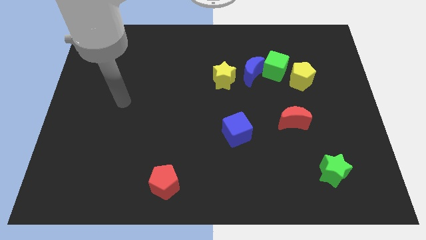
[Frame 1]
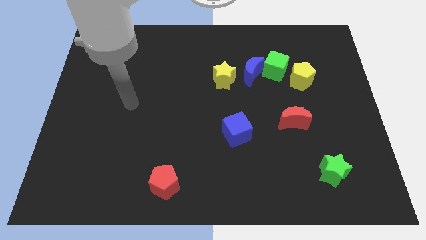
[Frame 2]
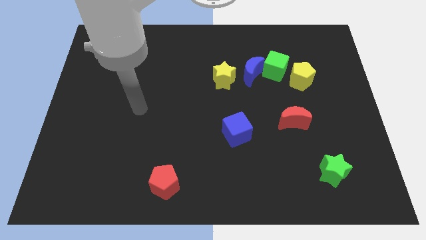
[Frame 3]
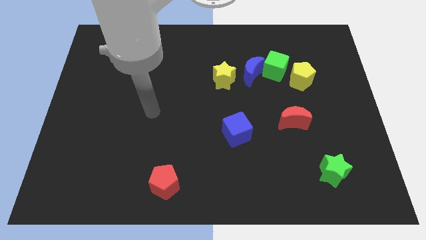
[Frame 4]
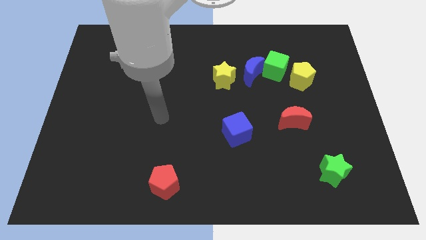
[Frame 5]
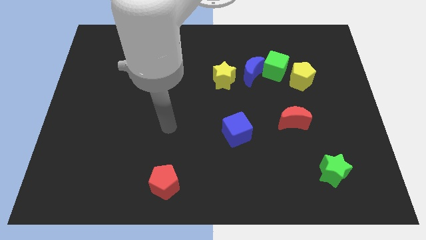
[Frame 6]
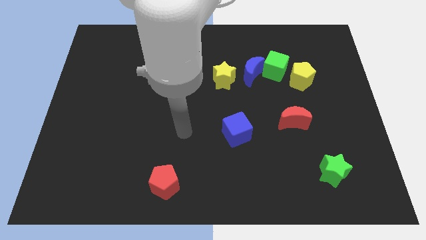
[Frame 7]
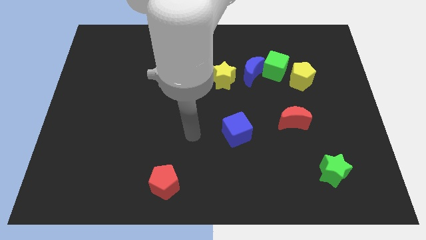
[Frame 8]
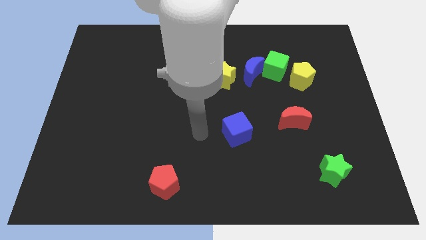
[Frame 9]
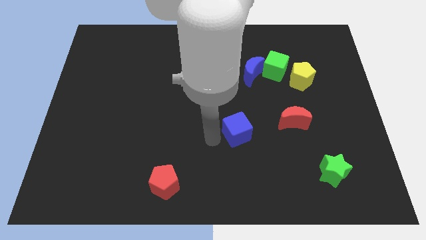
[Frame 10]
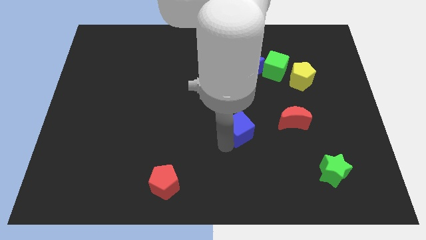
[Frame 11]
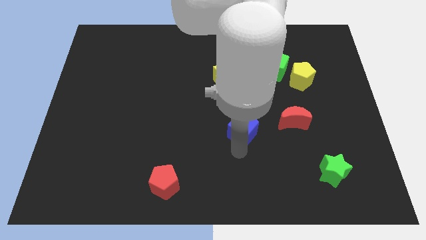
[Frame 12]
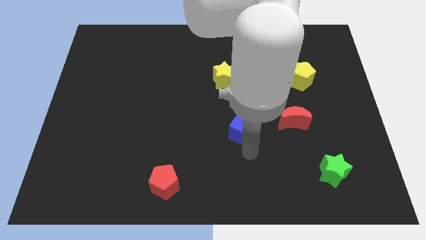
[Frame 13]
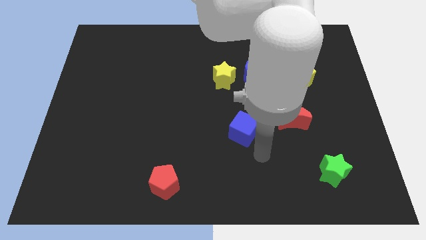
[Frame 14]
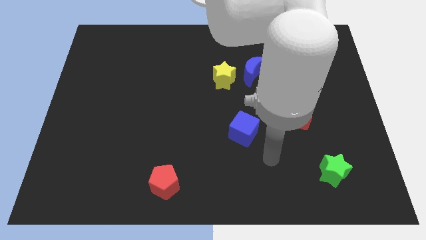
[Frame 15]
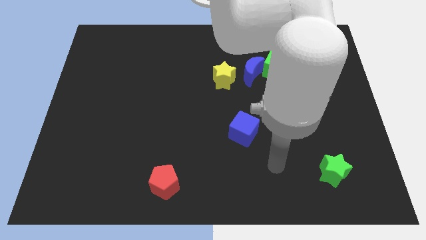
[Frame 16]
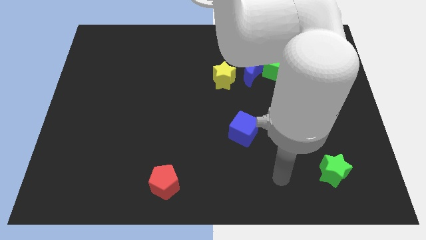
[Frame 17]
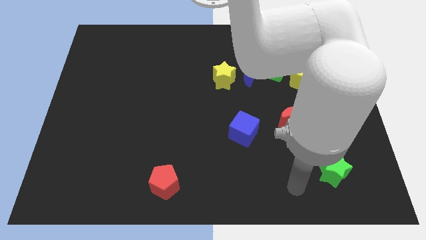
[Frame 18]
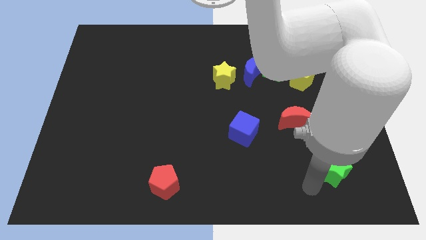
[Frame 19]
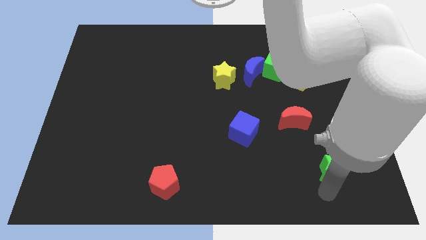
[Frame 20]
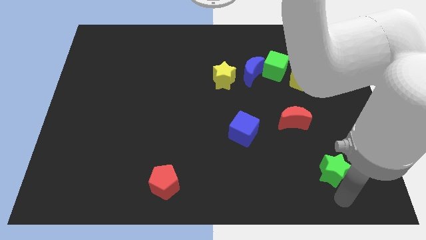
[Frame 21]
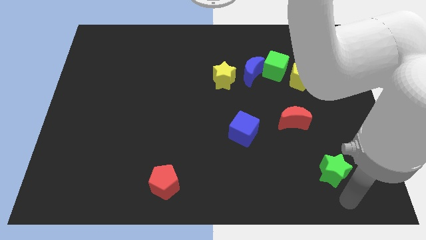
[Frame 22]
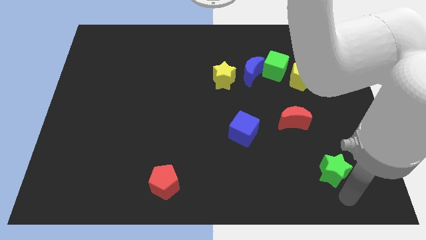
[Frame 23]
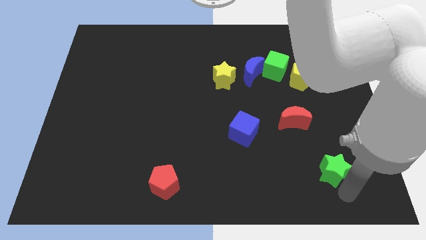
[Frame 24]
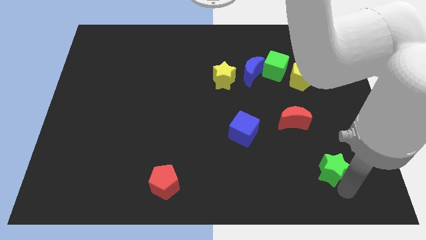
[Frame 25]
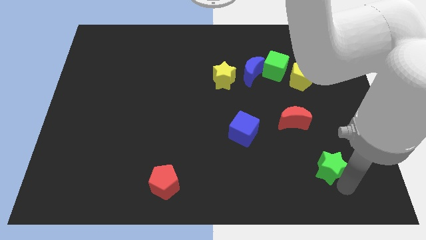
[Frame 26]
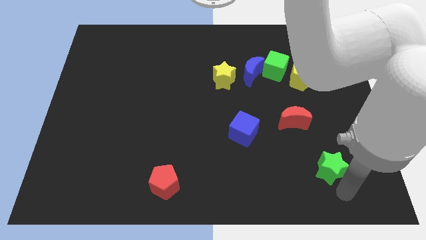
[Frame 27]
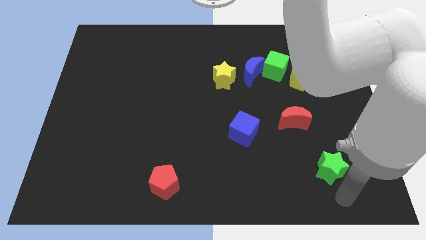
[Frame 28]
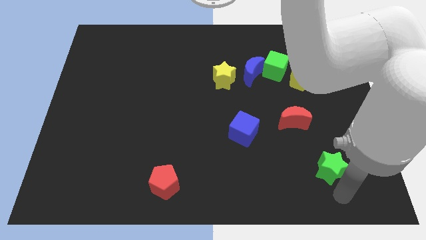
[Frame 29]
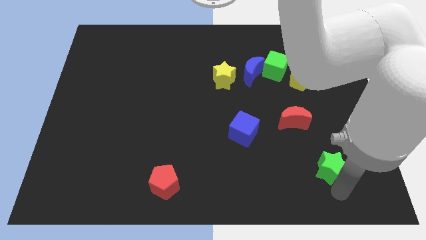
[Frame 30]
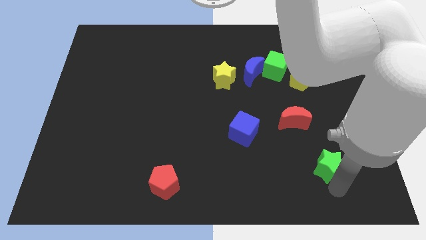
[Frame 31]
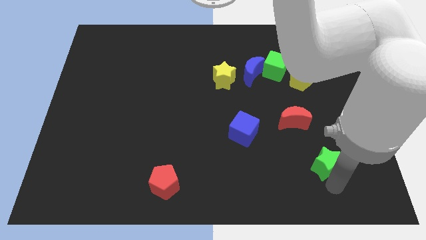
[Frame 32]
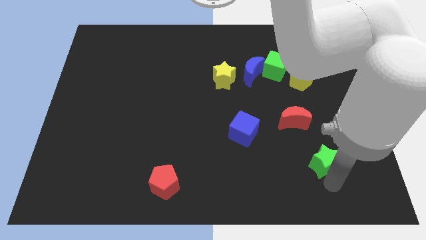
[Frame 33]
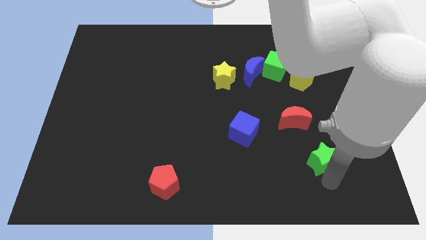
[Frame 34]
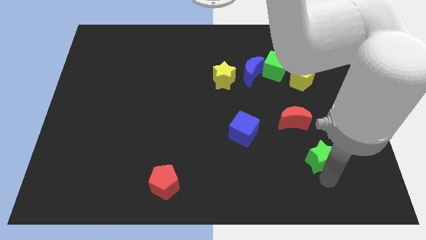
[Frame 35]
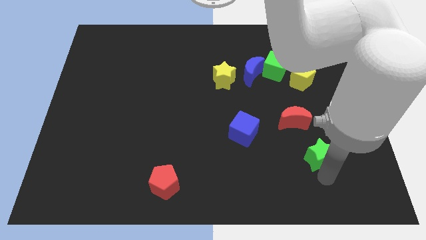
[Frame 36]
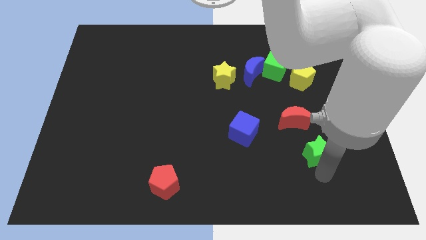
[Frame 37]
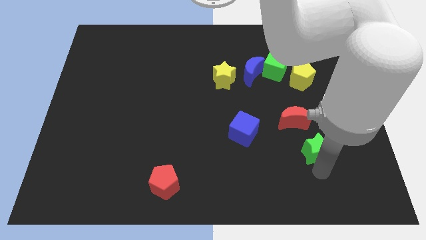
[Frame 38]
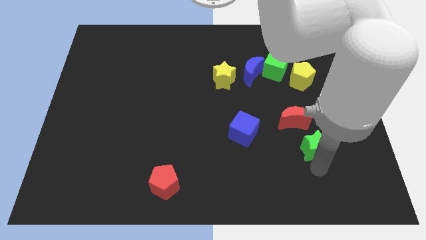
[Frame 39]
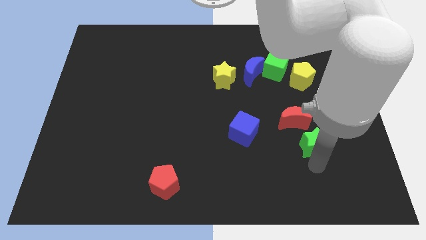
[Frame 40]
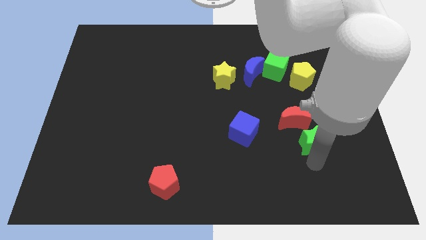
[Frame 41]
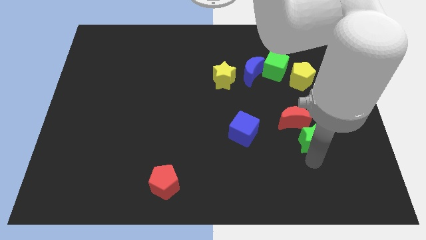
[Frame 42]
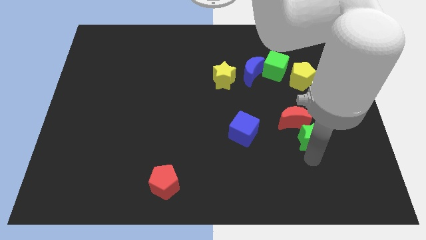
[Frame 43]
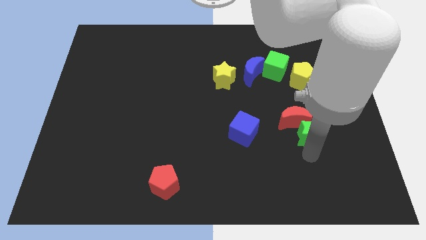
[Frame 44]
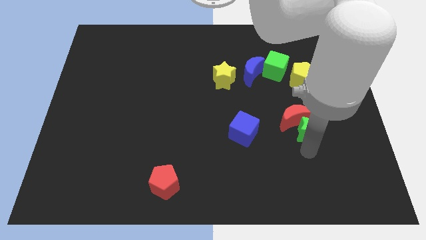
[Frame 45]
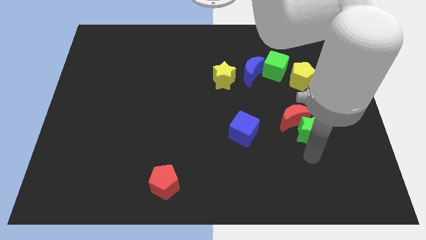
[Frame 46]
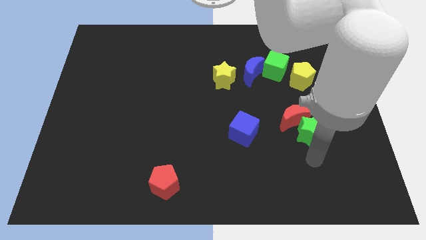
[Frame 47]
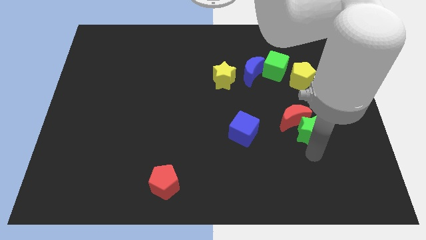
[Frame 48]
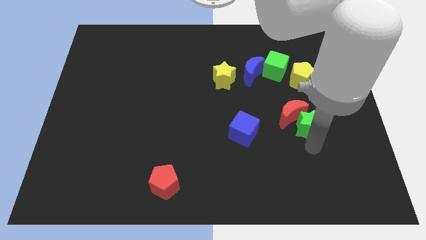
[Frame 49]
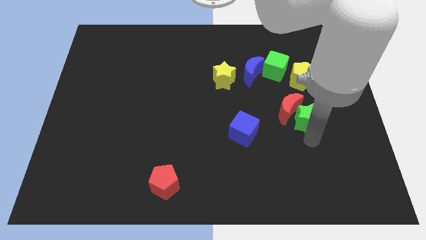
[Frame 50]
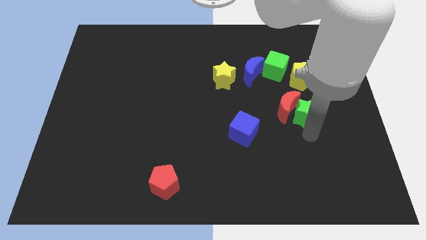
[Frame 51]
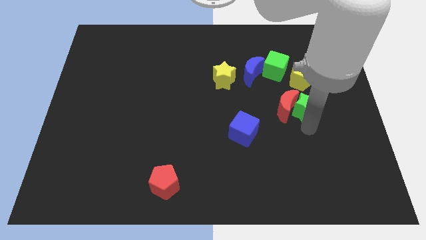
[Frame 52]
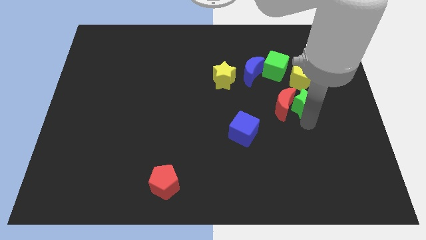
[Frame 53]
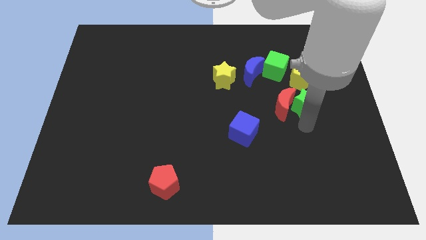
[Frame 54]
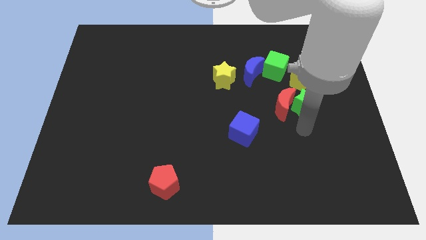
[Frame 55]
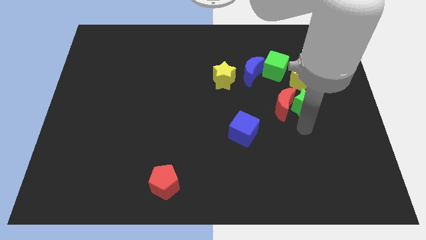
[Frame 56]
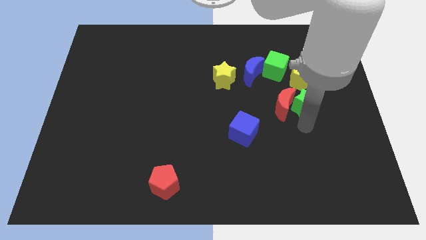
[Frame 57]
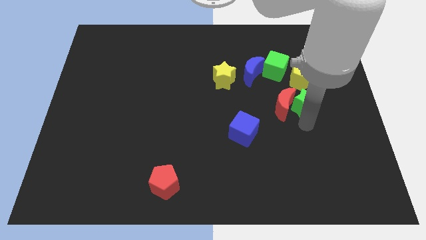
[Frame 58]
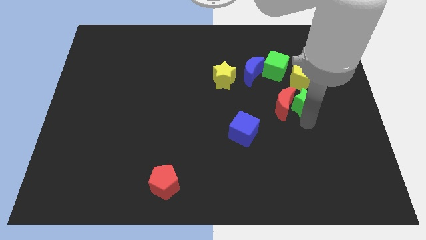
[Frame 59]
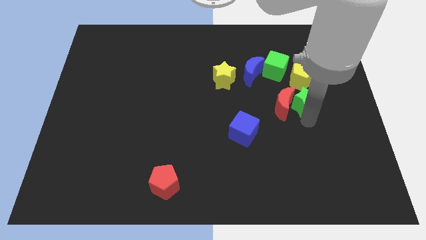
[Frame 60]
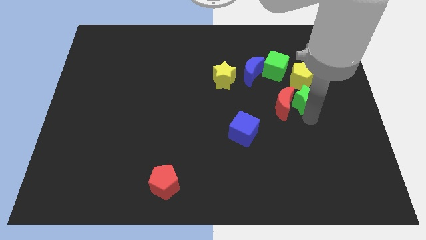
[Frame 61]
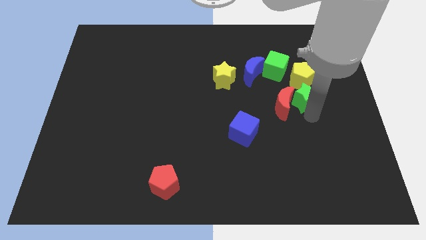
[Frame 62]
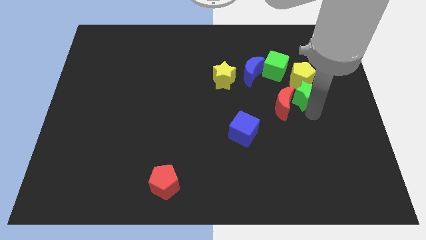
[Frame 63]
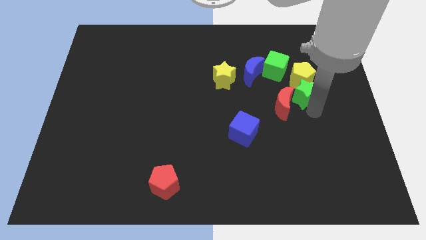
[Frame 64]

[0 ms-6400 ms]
push the green star to the yellow pentagon

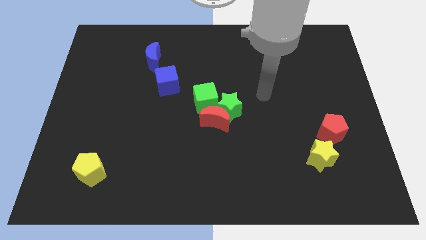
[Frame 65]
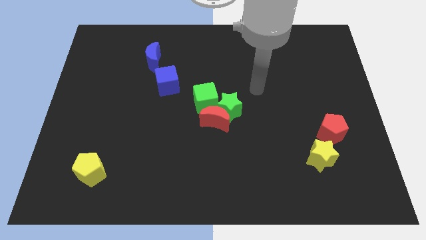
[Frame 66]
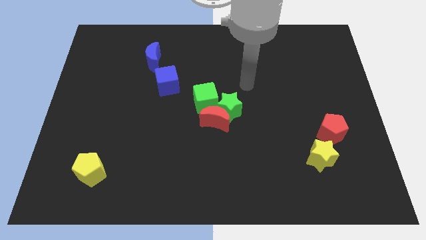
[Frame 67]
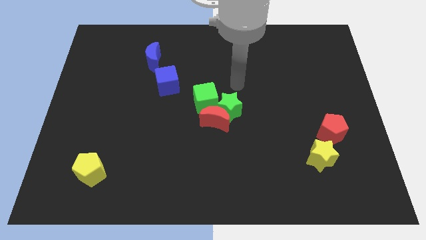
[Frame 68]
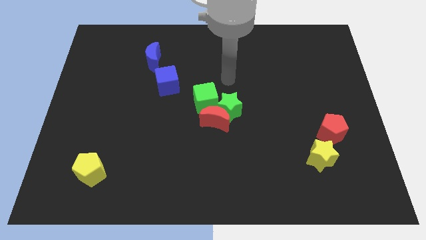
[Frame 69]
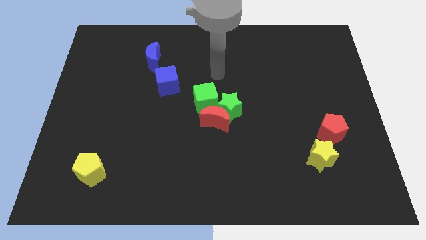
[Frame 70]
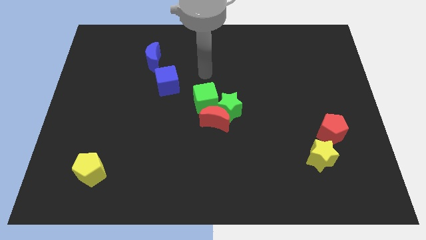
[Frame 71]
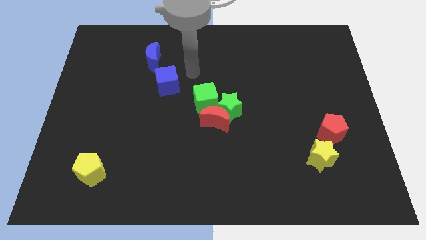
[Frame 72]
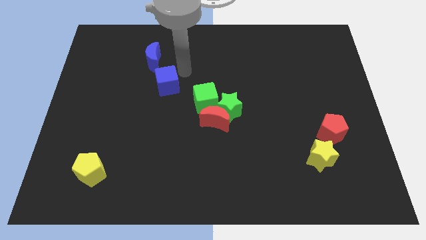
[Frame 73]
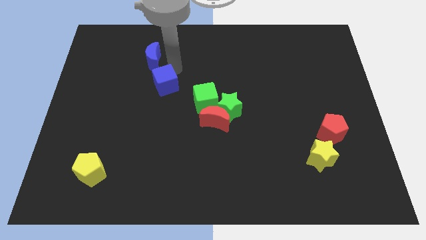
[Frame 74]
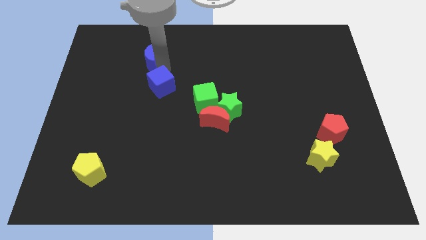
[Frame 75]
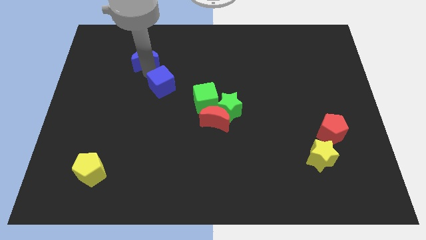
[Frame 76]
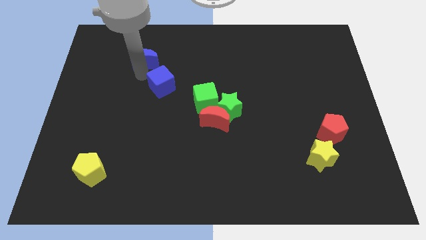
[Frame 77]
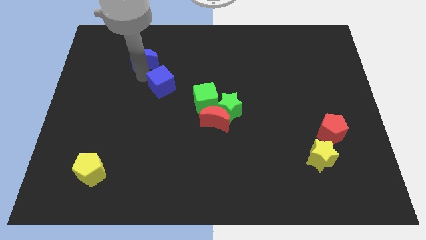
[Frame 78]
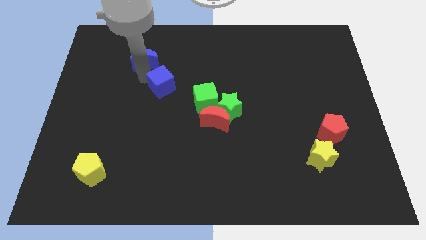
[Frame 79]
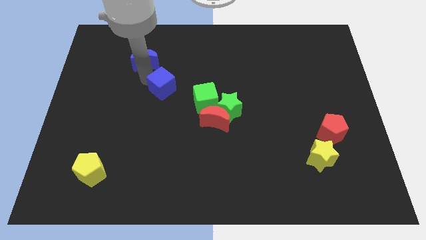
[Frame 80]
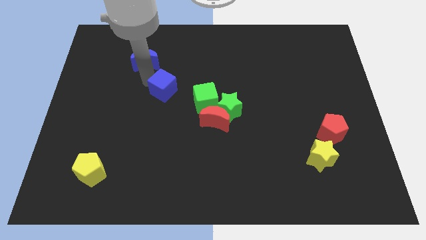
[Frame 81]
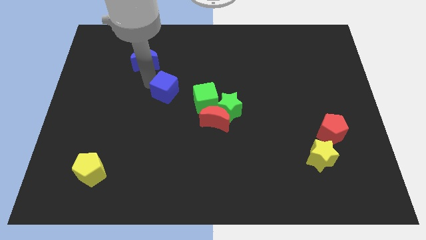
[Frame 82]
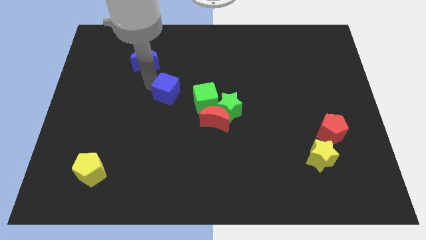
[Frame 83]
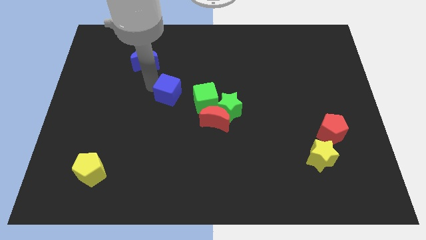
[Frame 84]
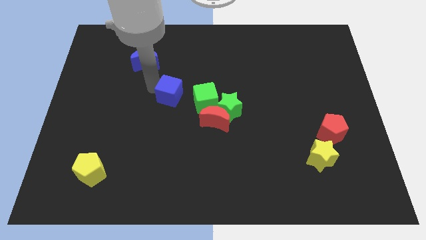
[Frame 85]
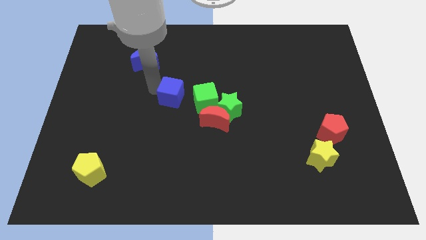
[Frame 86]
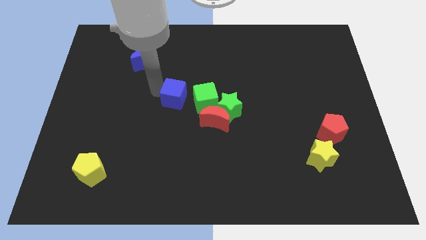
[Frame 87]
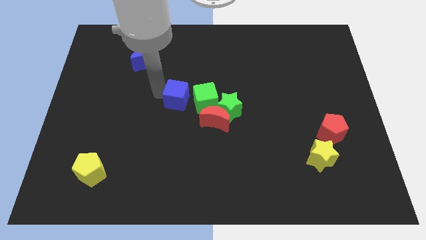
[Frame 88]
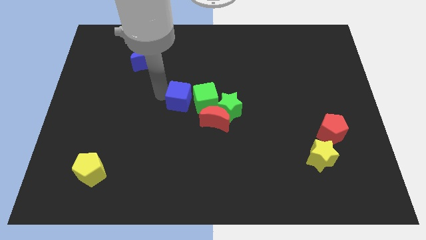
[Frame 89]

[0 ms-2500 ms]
put the blue cube next to the green cube
